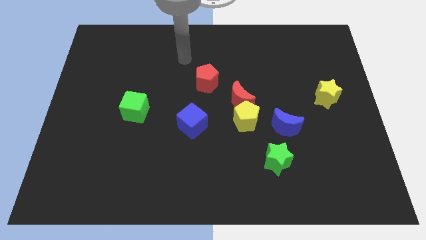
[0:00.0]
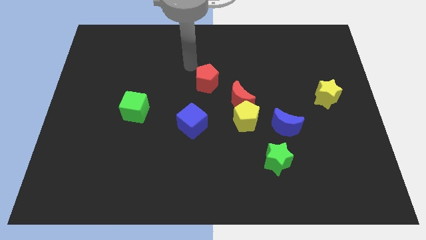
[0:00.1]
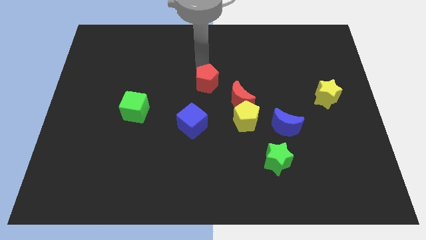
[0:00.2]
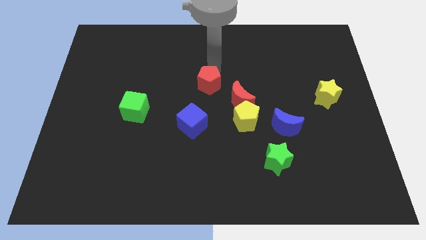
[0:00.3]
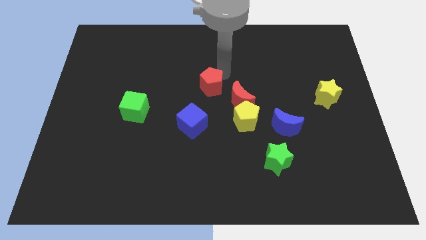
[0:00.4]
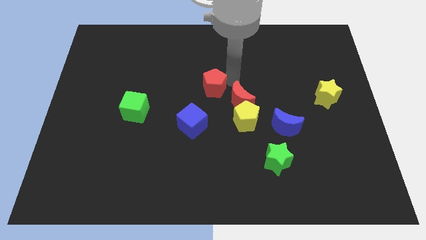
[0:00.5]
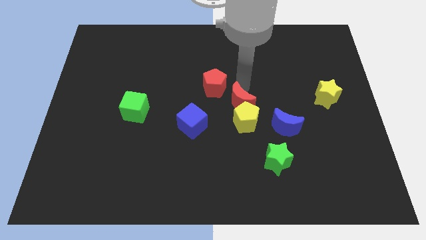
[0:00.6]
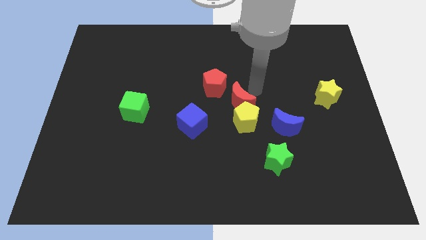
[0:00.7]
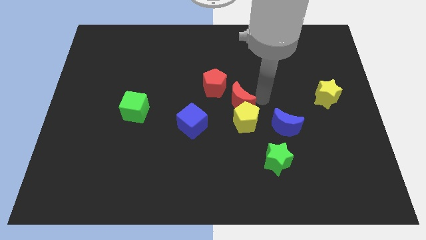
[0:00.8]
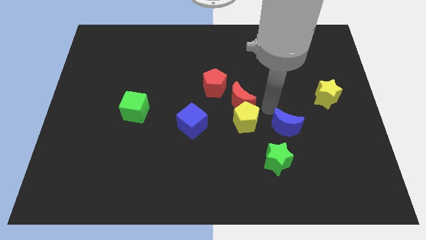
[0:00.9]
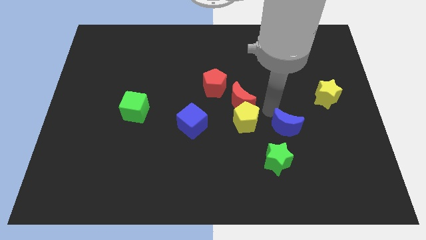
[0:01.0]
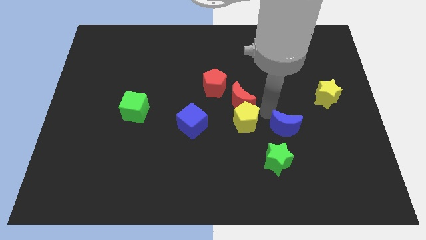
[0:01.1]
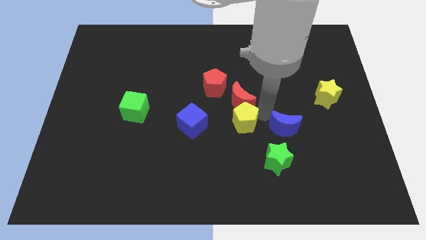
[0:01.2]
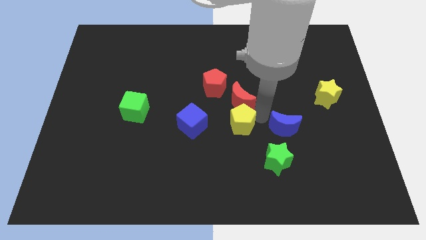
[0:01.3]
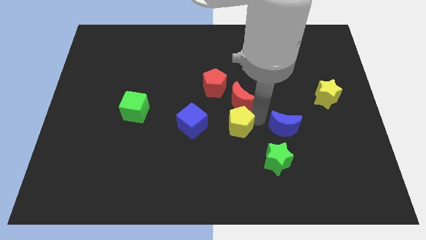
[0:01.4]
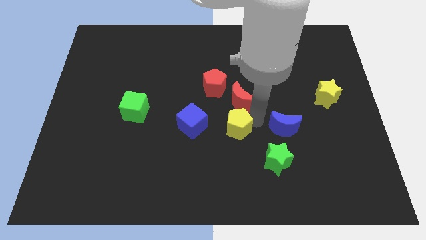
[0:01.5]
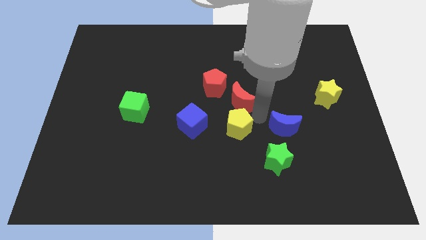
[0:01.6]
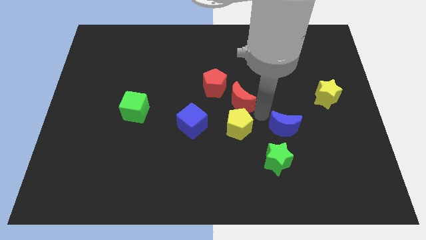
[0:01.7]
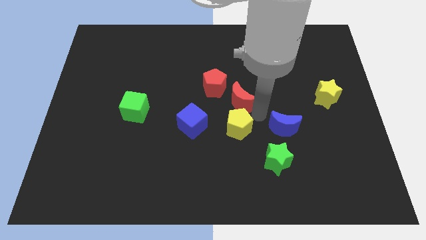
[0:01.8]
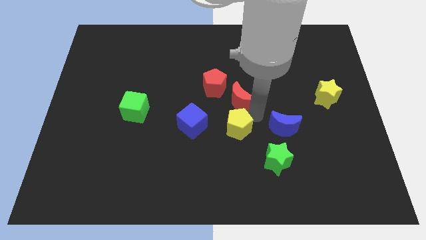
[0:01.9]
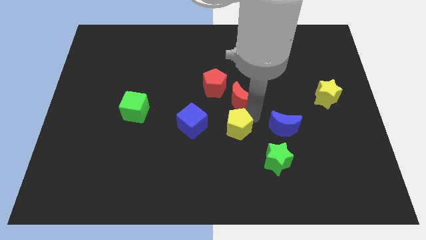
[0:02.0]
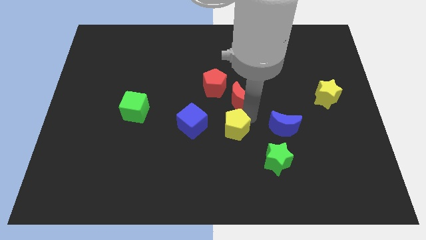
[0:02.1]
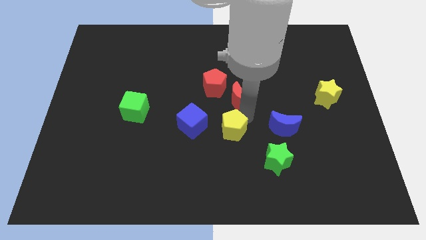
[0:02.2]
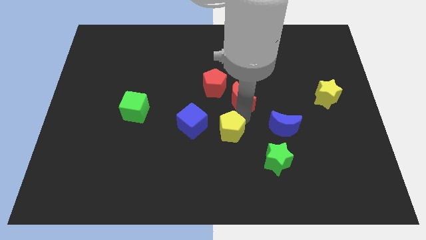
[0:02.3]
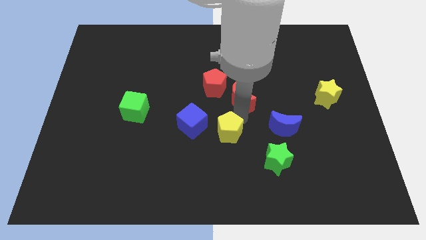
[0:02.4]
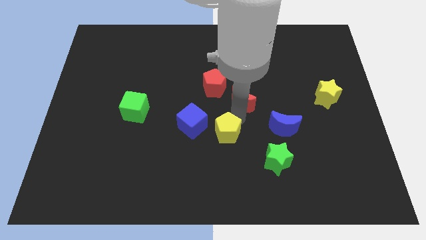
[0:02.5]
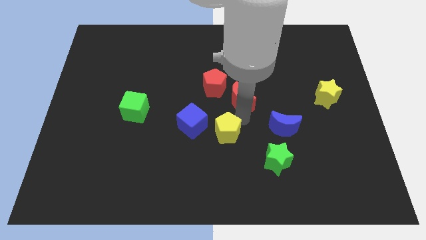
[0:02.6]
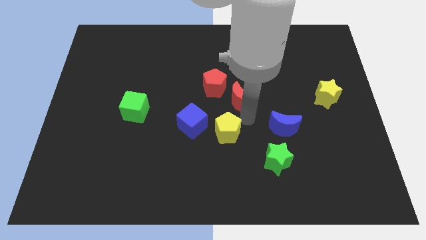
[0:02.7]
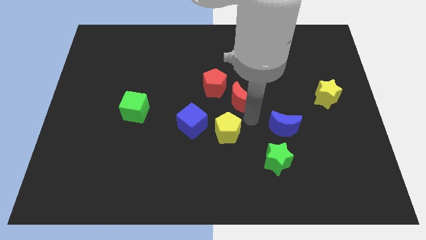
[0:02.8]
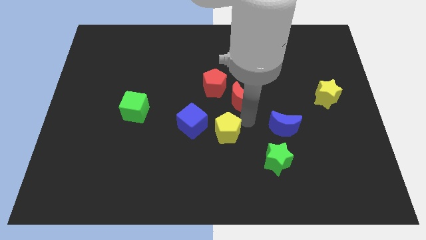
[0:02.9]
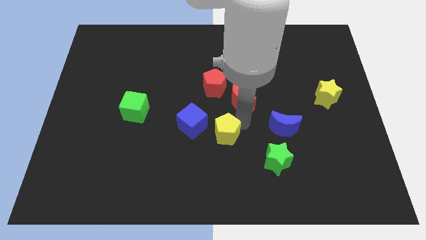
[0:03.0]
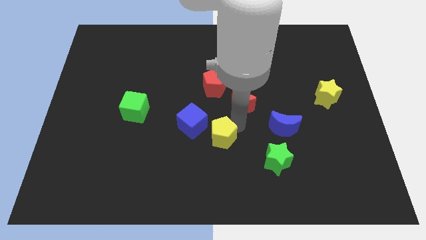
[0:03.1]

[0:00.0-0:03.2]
move the yellow pentagon away from the red moon and blue moon

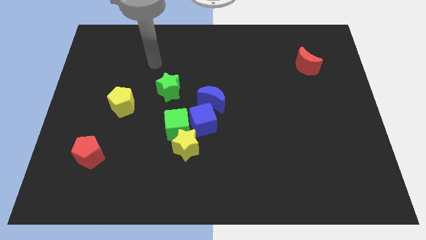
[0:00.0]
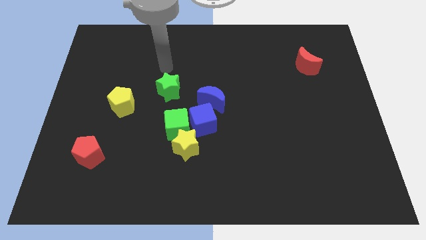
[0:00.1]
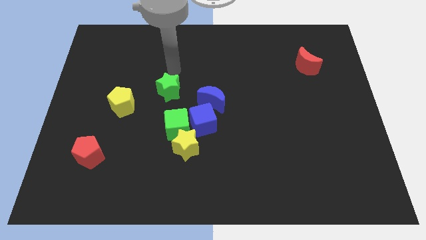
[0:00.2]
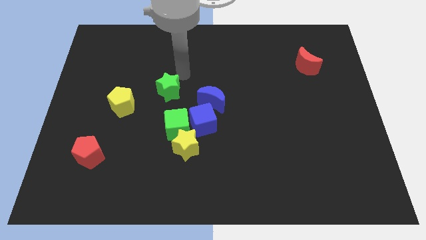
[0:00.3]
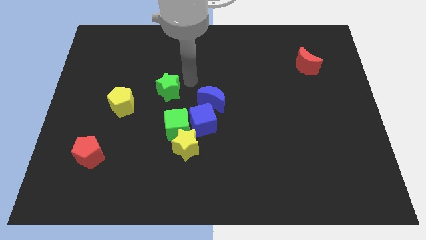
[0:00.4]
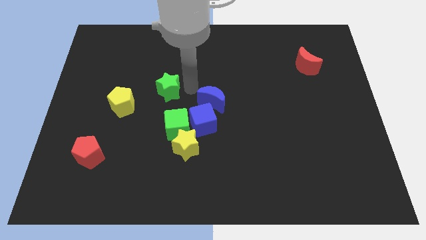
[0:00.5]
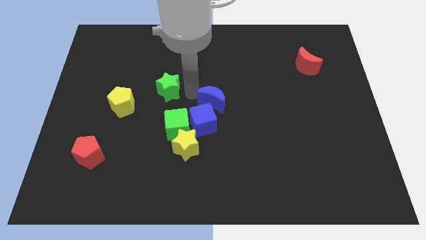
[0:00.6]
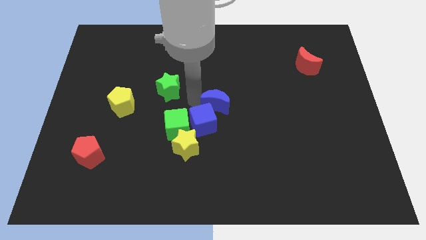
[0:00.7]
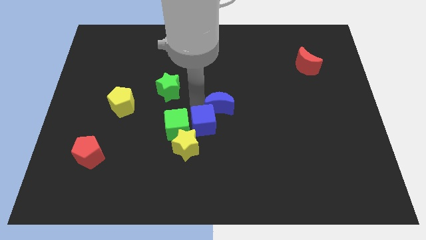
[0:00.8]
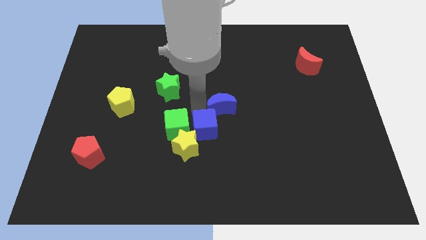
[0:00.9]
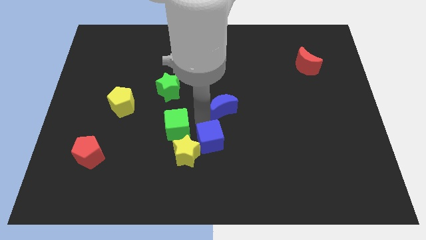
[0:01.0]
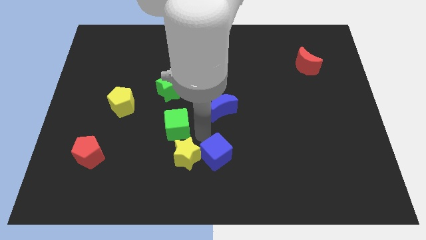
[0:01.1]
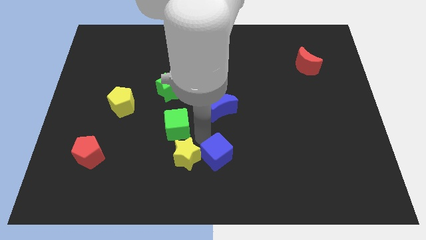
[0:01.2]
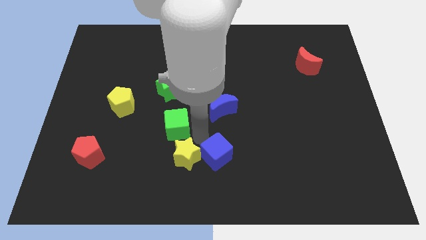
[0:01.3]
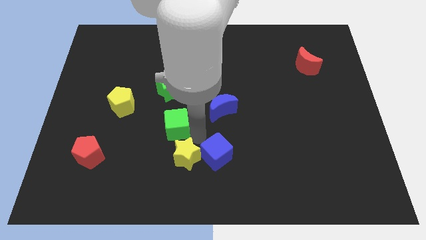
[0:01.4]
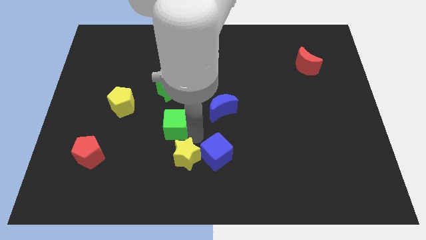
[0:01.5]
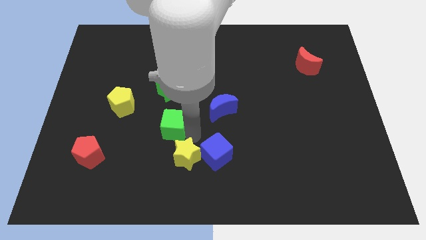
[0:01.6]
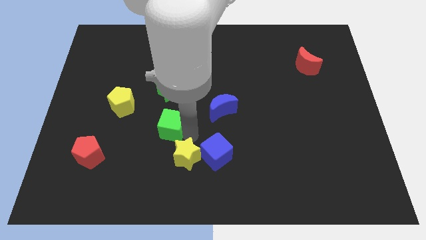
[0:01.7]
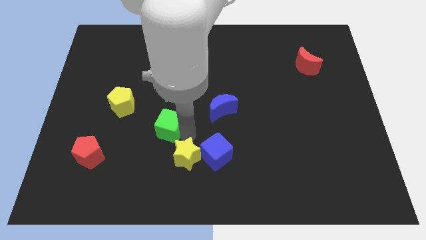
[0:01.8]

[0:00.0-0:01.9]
pull the green cube apart from the yellow star and blue cube

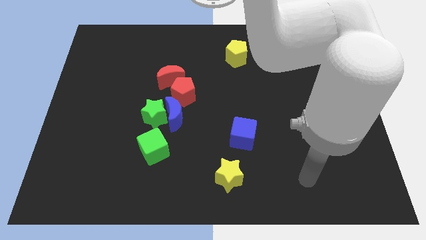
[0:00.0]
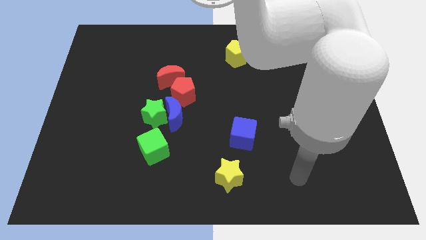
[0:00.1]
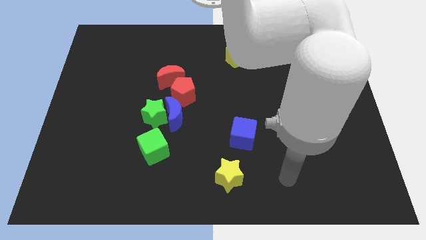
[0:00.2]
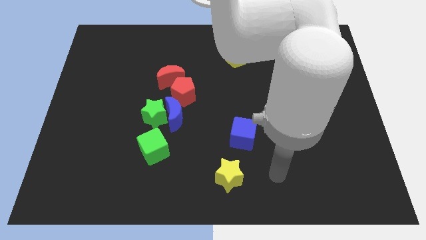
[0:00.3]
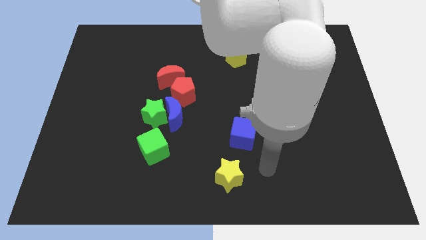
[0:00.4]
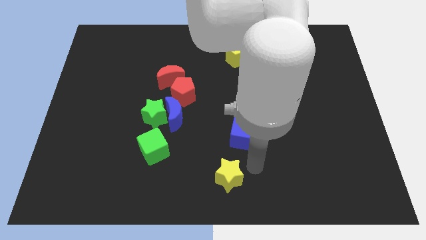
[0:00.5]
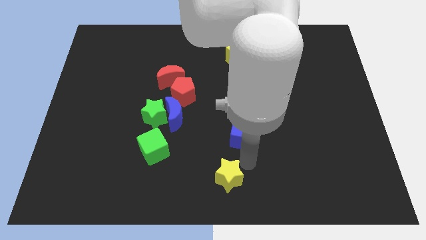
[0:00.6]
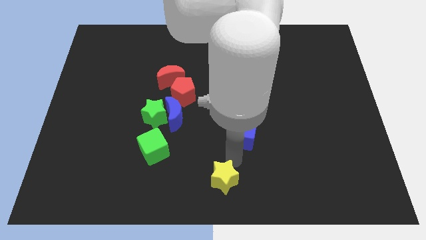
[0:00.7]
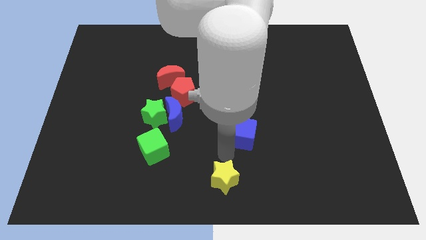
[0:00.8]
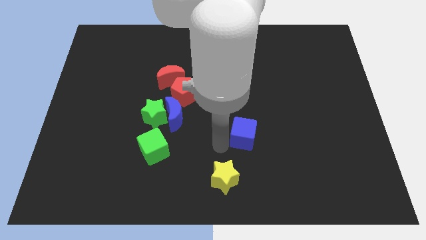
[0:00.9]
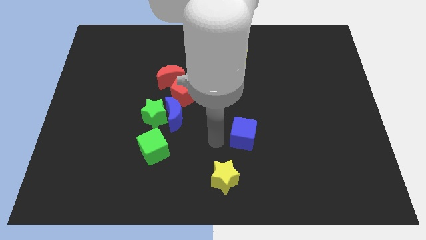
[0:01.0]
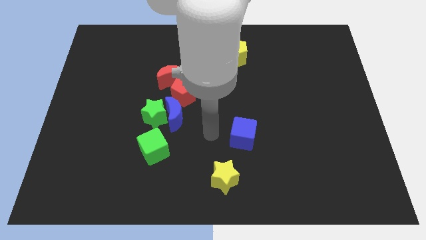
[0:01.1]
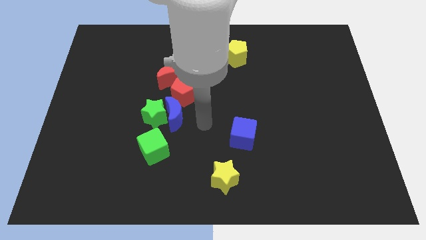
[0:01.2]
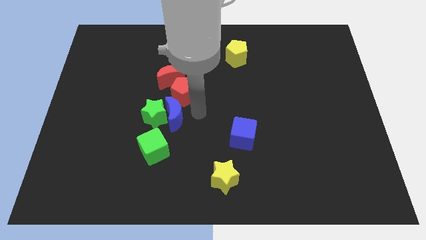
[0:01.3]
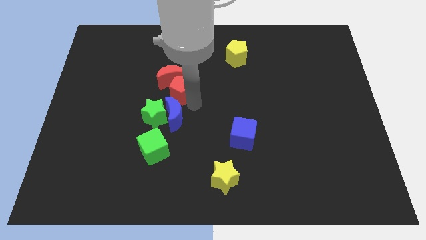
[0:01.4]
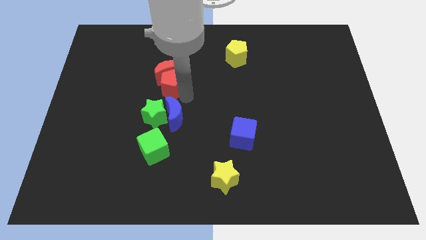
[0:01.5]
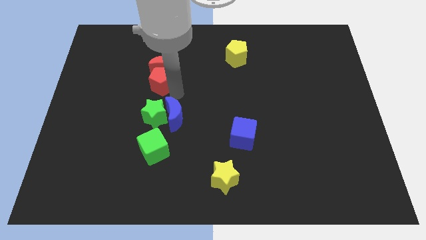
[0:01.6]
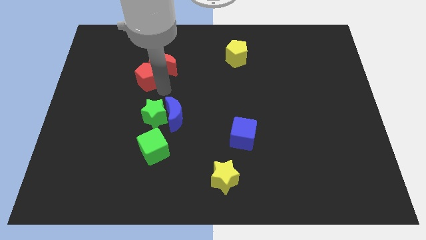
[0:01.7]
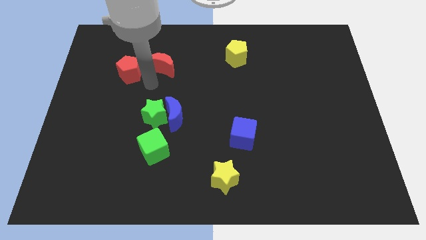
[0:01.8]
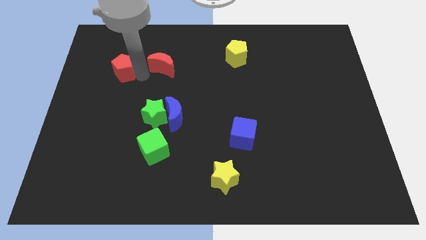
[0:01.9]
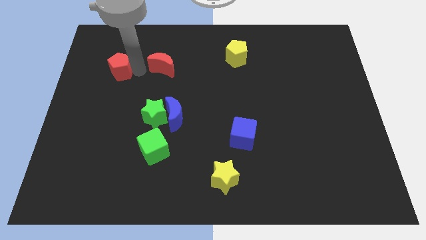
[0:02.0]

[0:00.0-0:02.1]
pull the red moon apart from the red pentagon

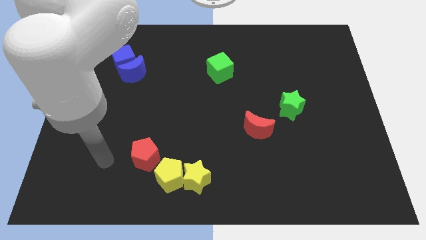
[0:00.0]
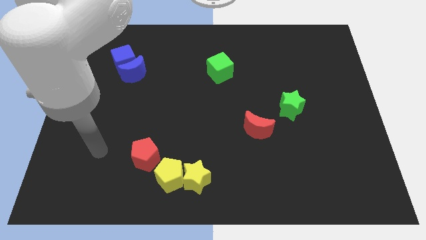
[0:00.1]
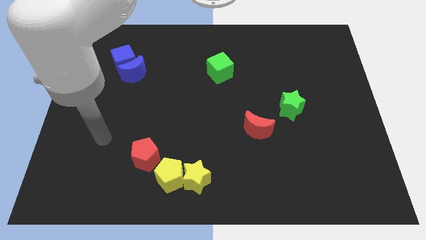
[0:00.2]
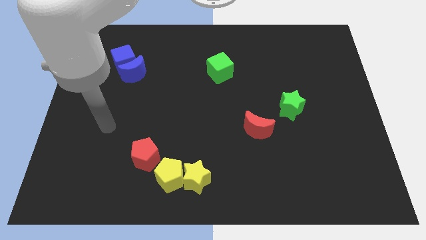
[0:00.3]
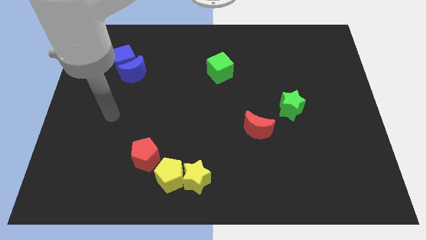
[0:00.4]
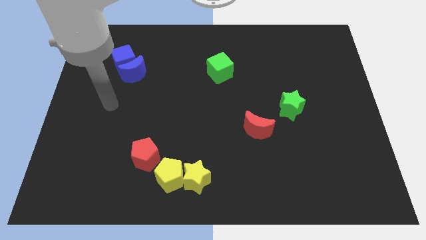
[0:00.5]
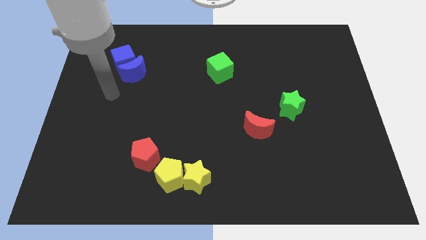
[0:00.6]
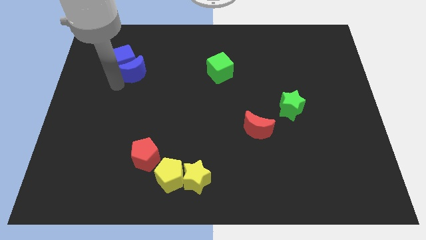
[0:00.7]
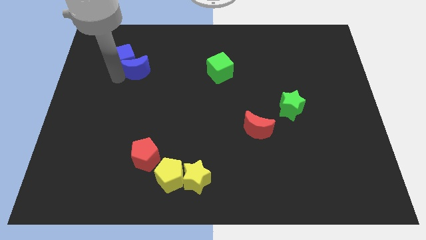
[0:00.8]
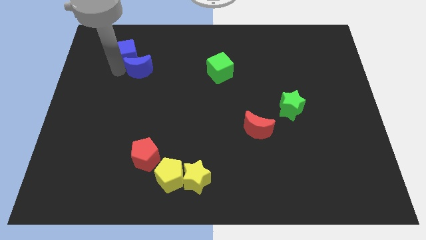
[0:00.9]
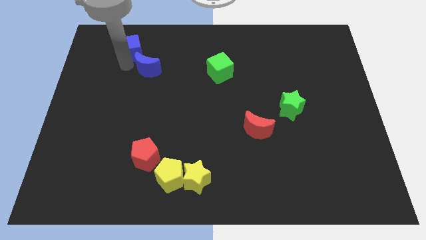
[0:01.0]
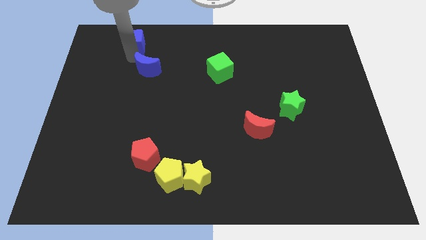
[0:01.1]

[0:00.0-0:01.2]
move the blue moon away from the blue cube

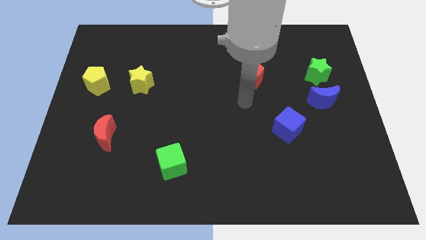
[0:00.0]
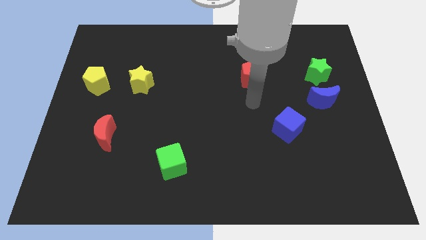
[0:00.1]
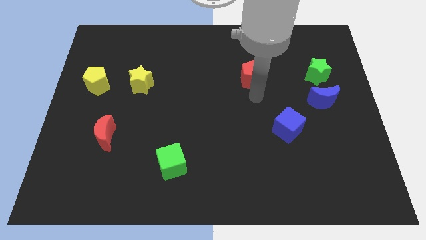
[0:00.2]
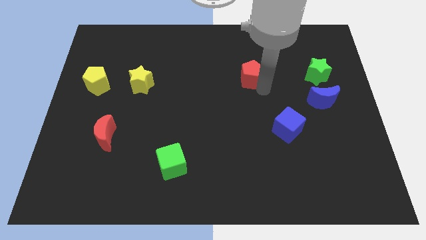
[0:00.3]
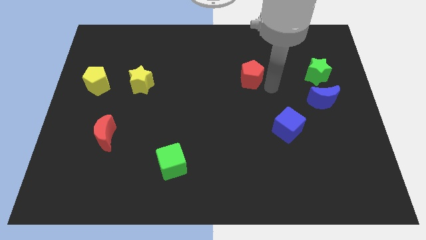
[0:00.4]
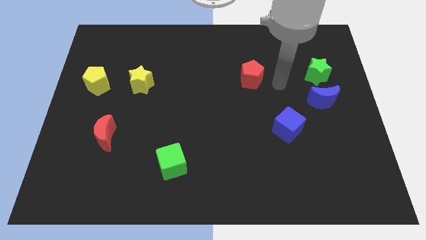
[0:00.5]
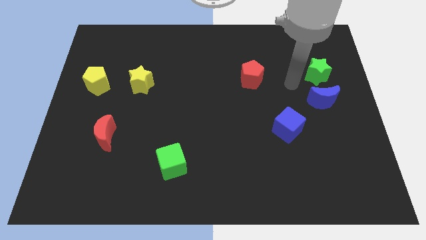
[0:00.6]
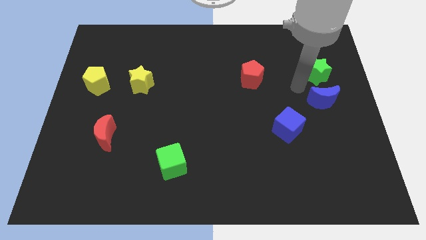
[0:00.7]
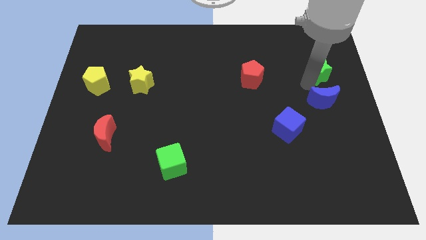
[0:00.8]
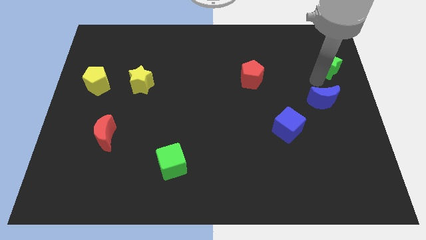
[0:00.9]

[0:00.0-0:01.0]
separate the blue moon from the green star
